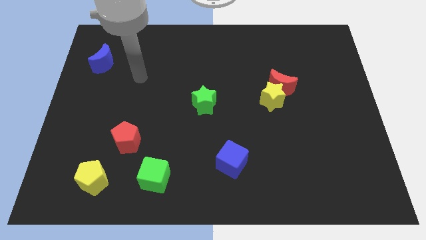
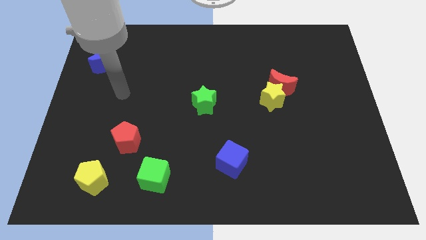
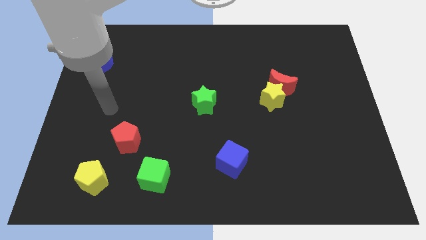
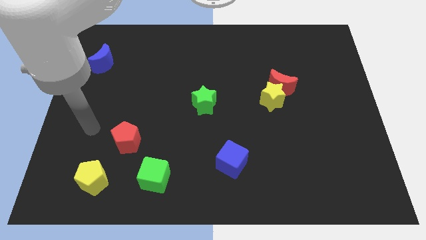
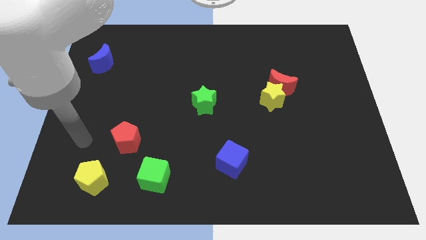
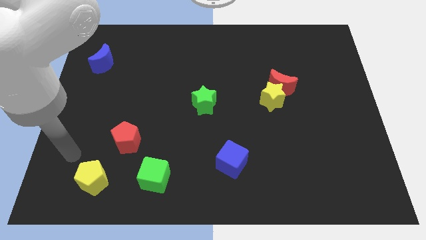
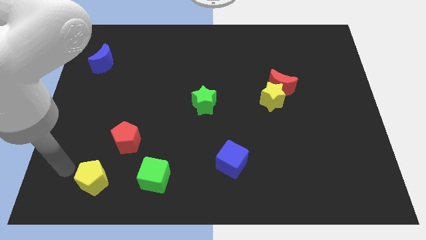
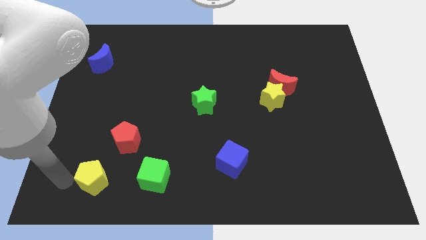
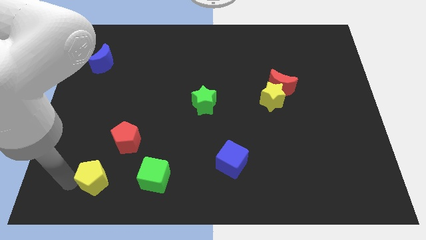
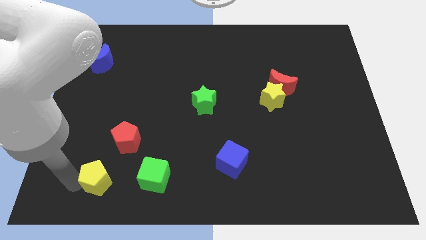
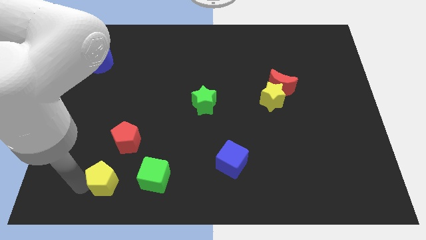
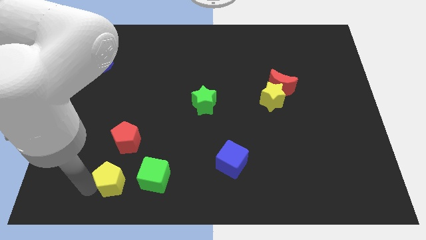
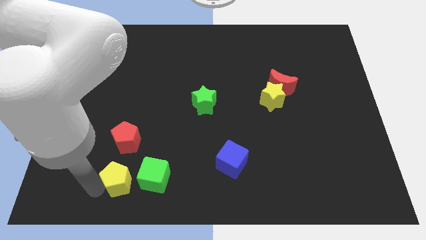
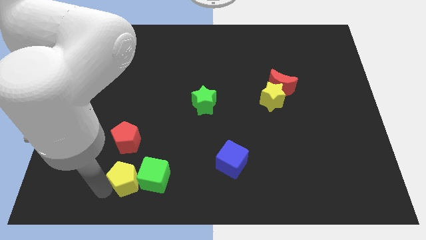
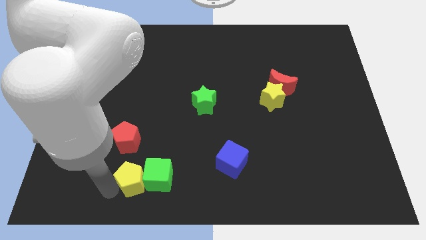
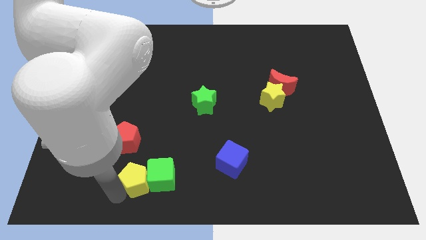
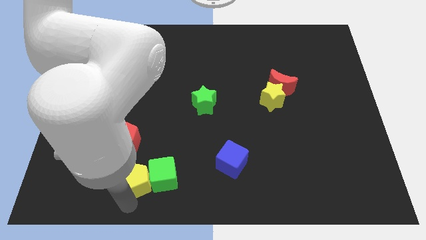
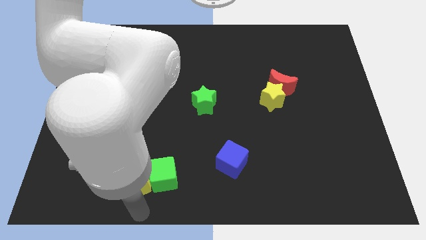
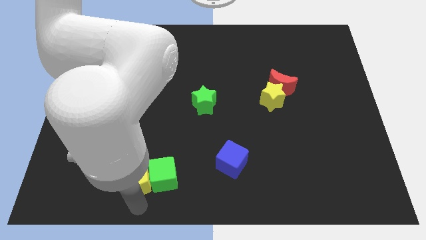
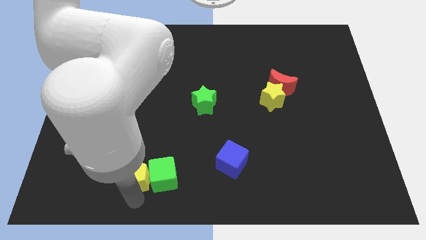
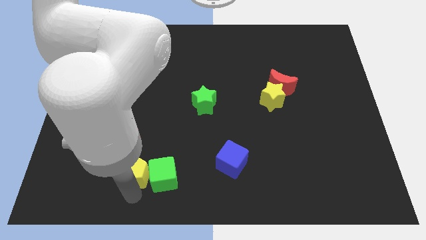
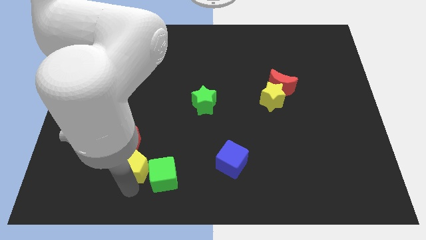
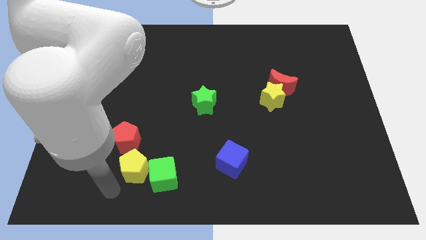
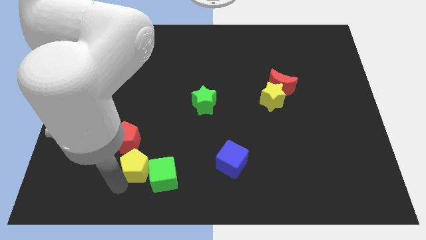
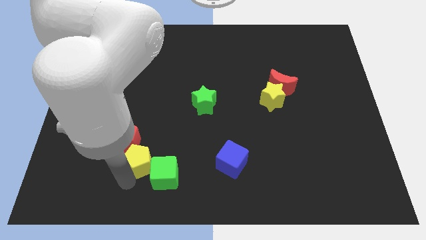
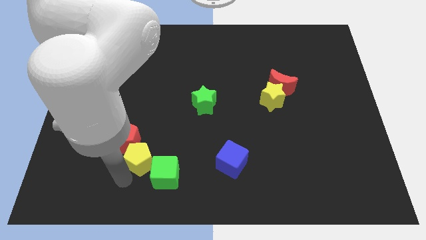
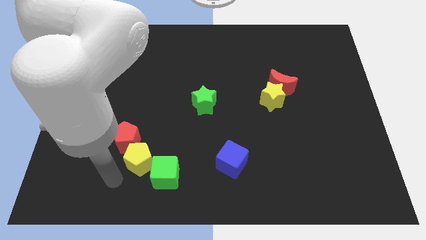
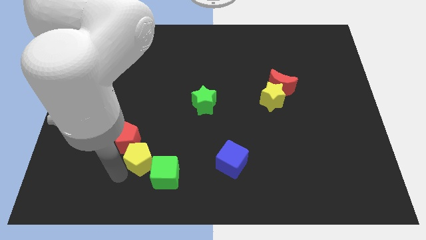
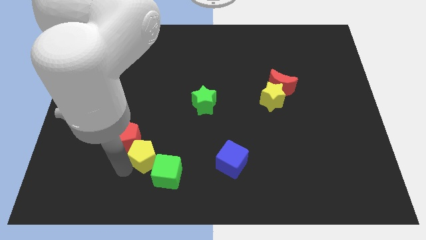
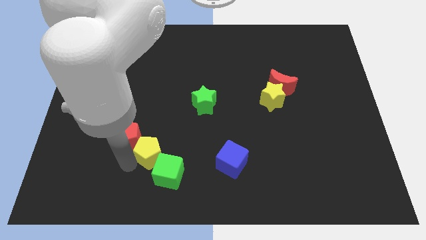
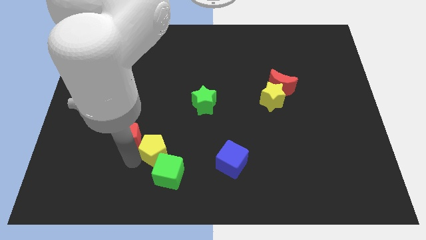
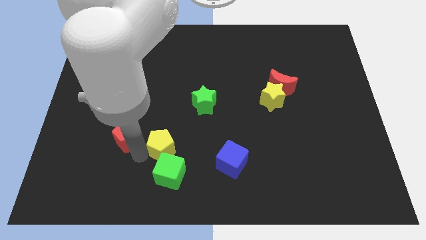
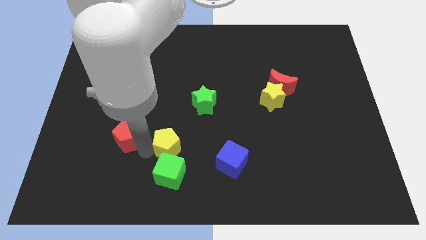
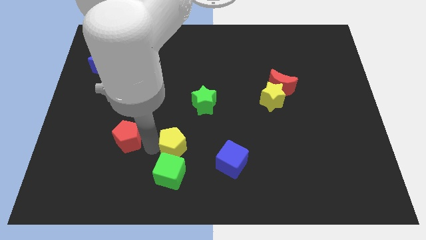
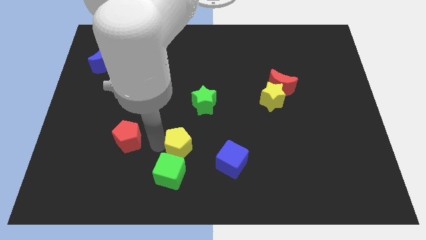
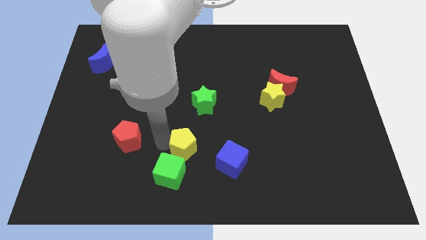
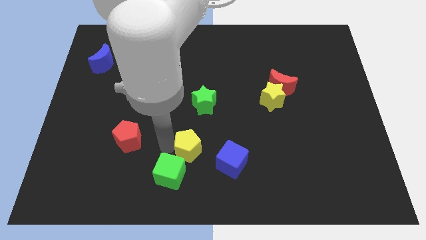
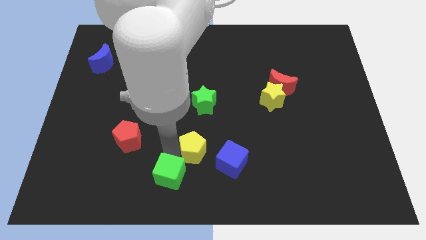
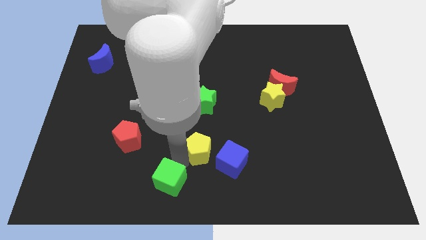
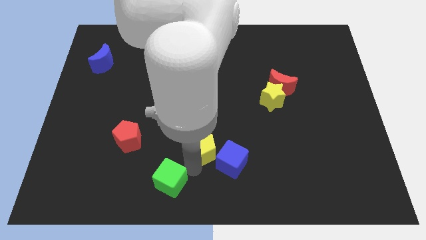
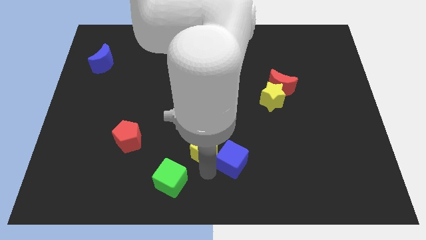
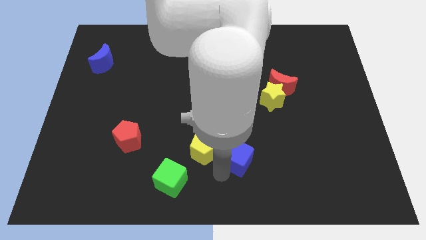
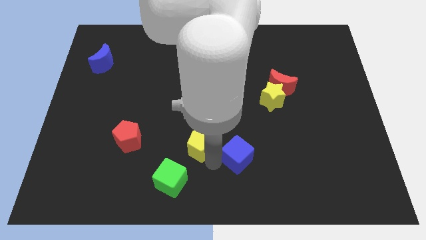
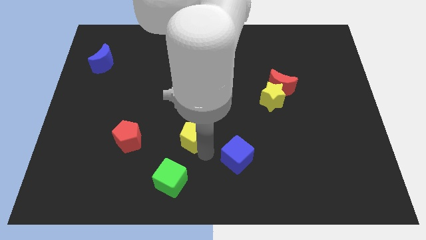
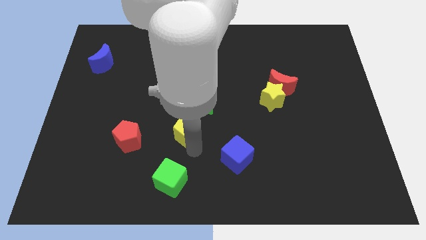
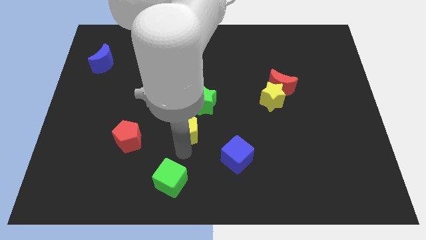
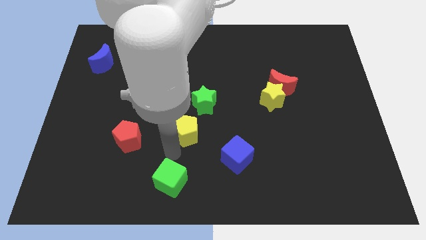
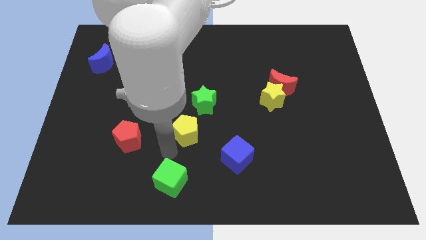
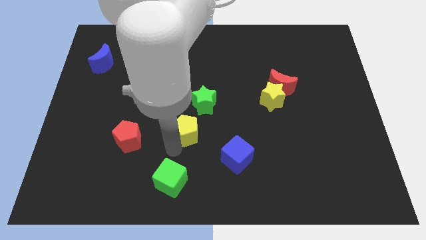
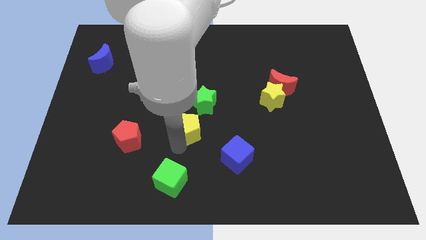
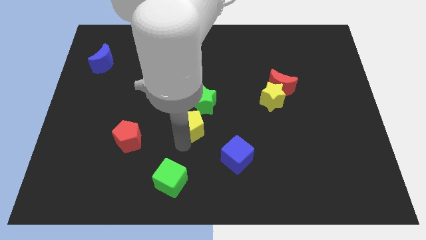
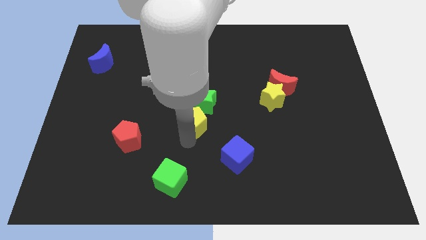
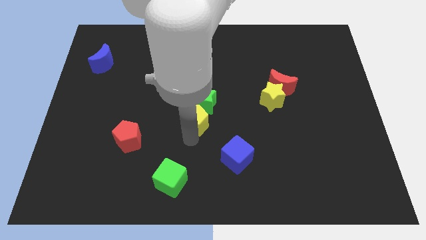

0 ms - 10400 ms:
push the yellow pentagon next to the green star

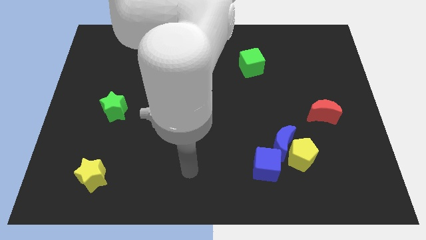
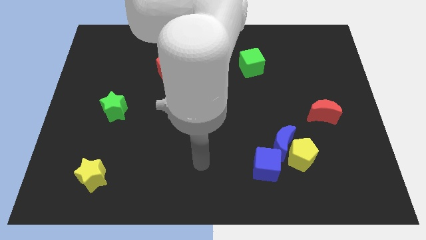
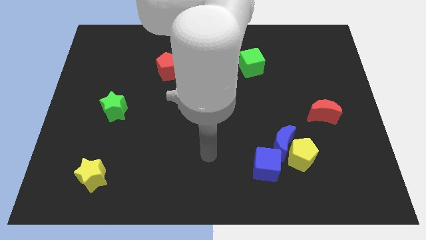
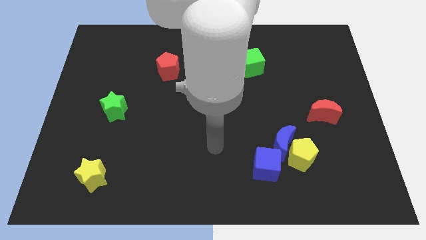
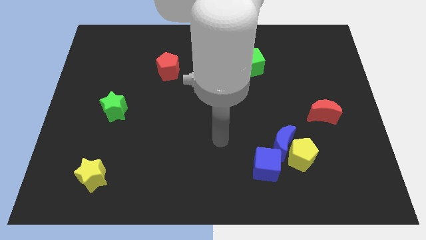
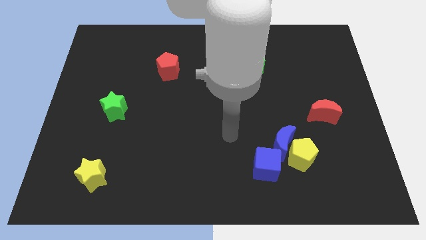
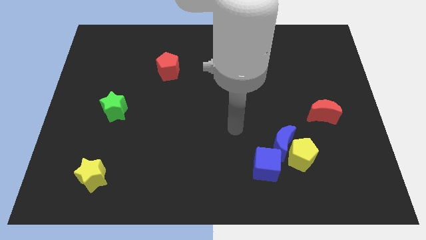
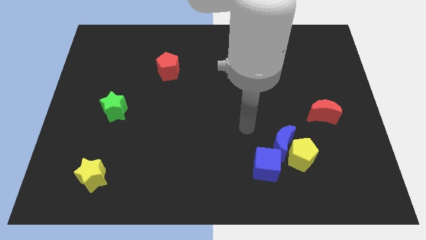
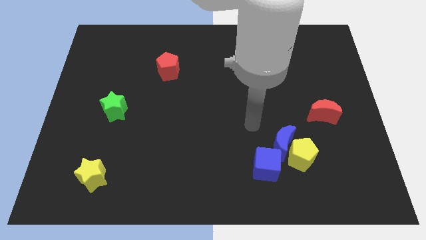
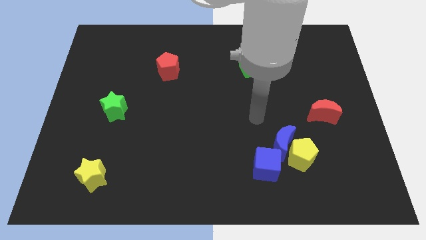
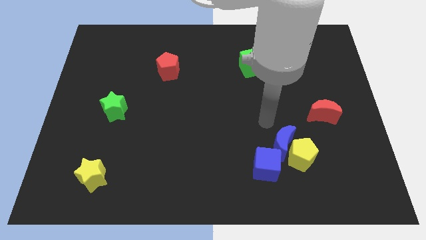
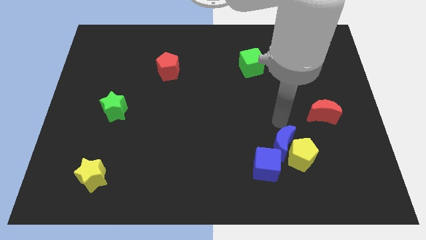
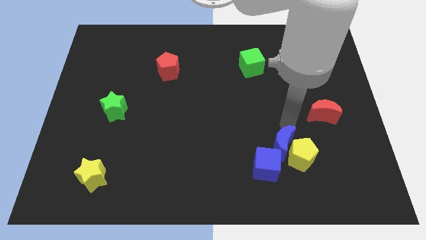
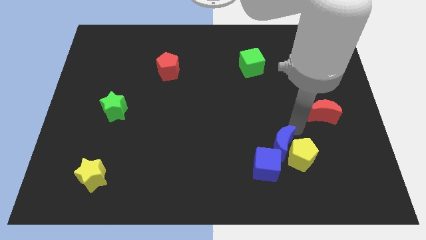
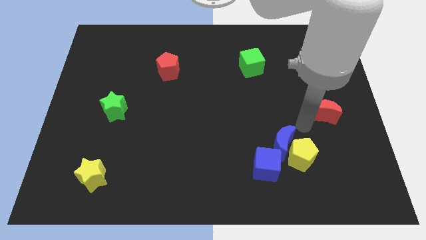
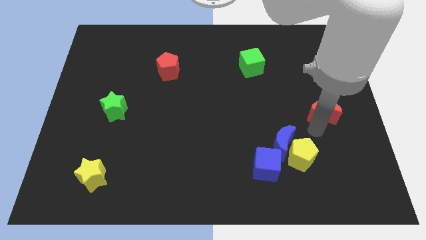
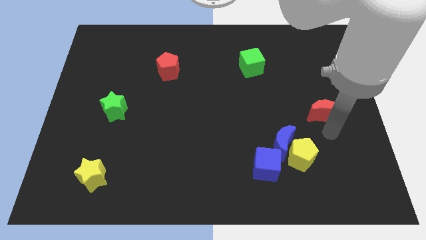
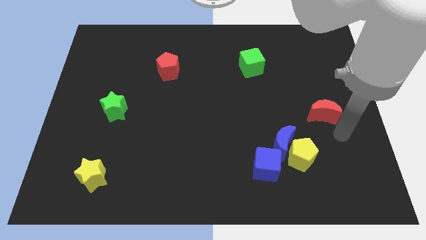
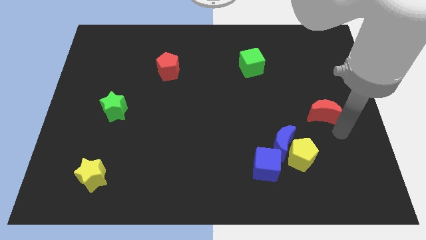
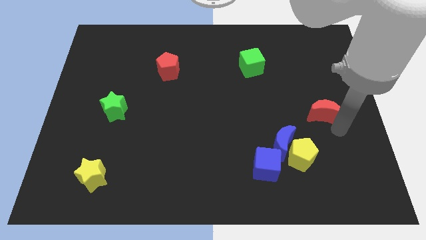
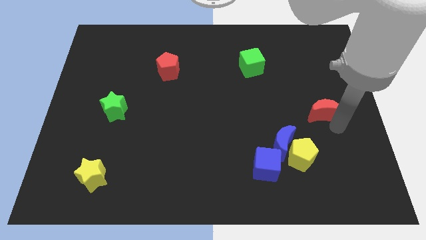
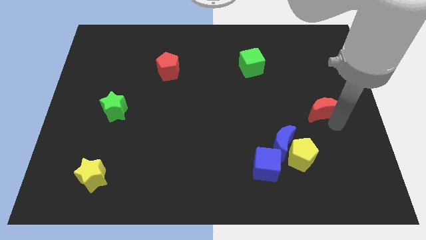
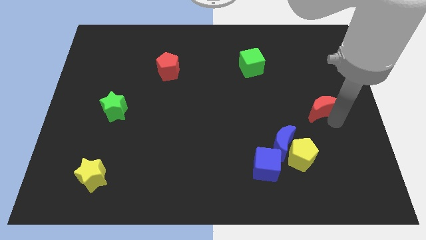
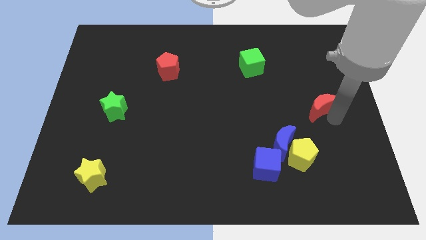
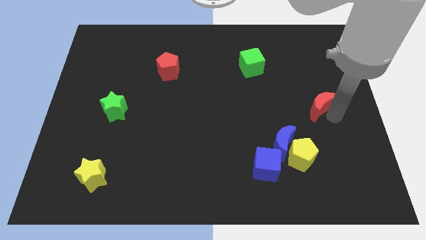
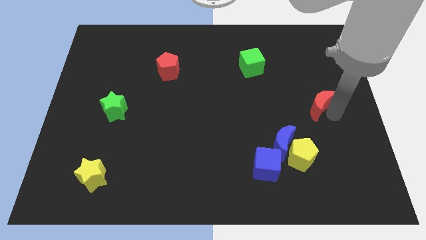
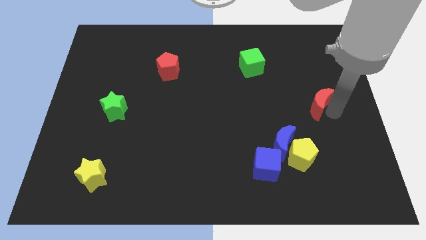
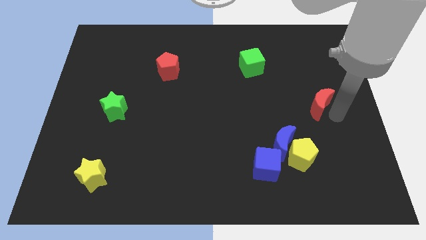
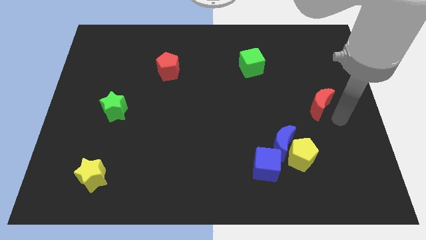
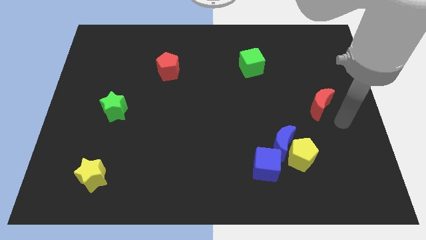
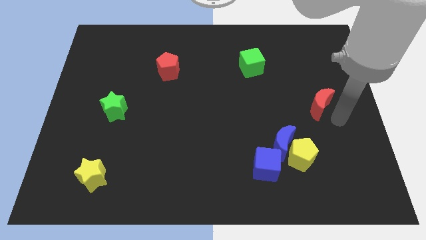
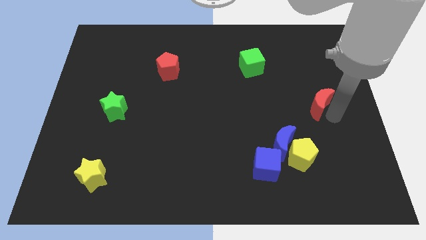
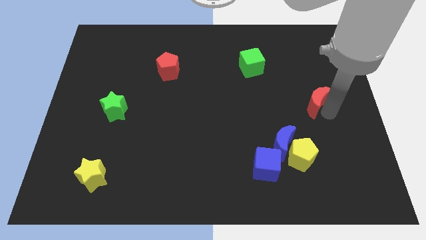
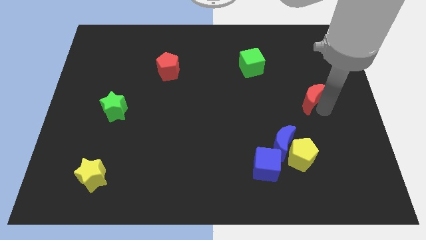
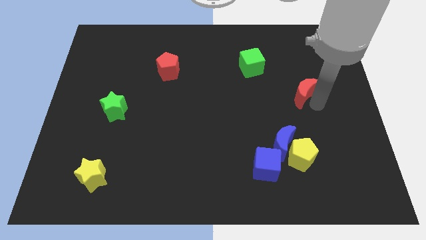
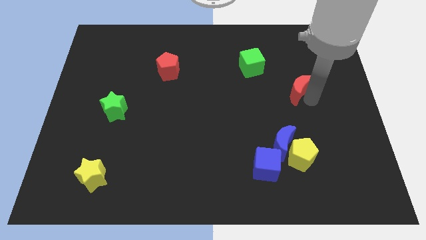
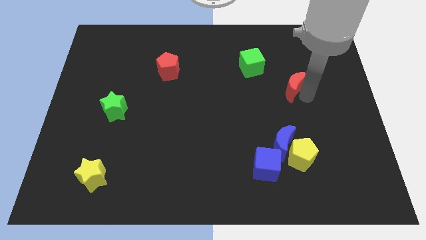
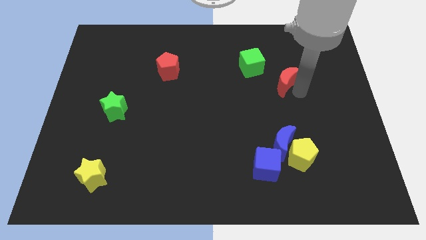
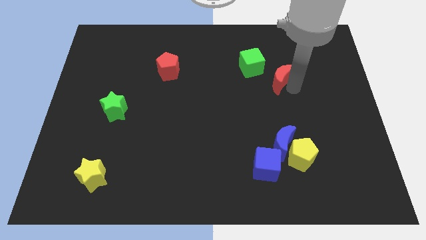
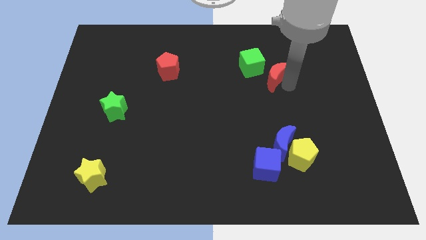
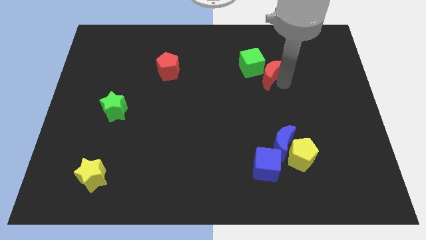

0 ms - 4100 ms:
move the red moon next to the green cube
